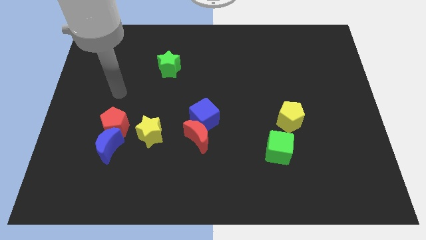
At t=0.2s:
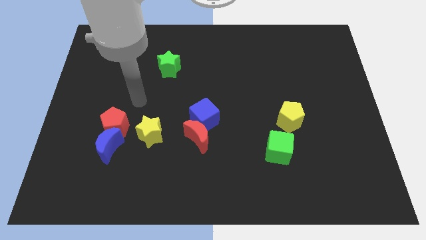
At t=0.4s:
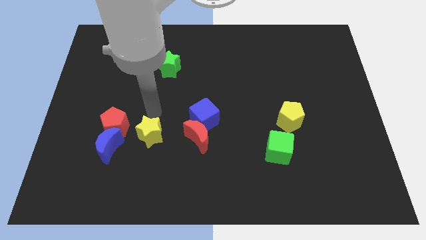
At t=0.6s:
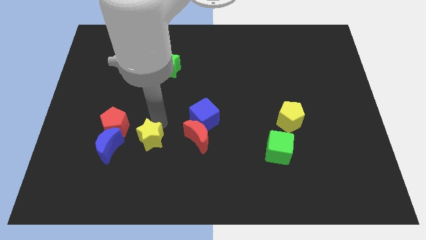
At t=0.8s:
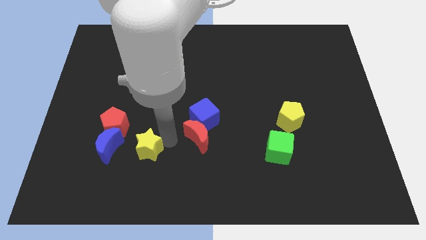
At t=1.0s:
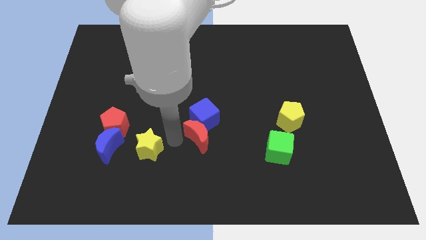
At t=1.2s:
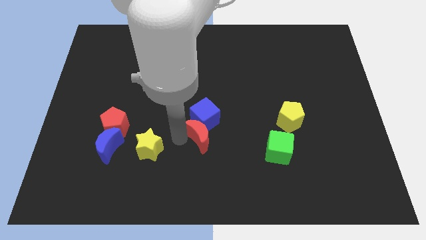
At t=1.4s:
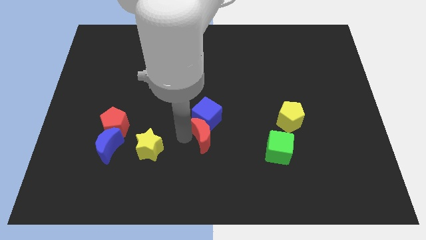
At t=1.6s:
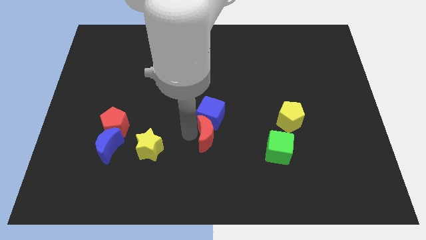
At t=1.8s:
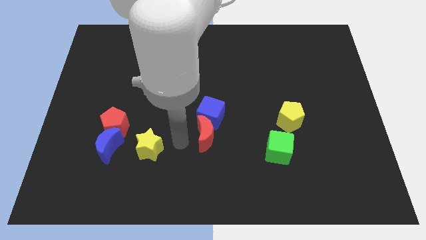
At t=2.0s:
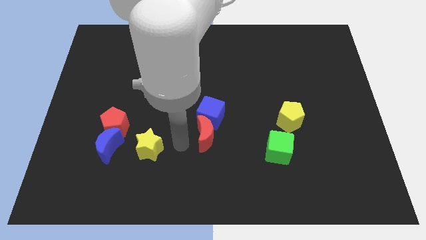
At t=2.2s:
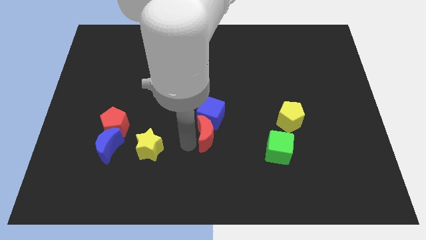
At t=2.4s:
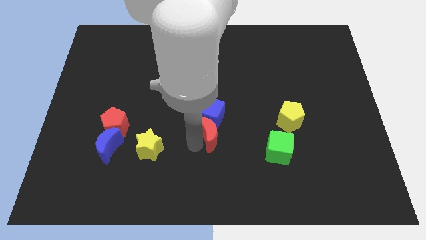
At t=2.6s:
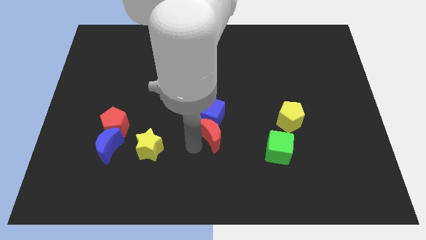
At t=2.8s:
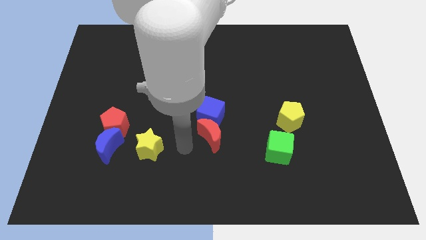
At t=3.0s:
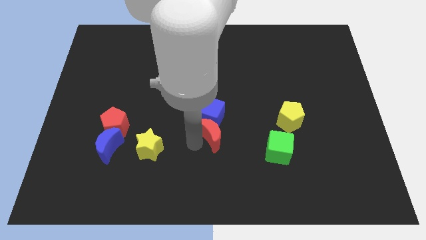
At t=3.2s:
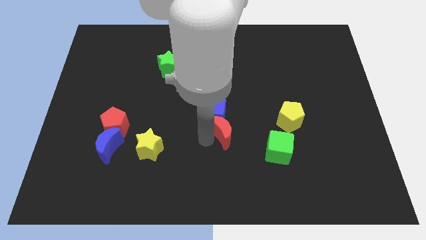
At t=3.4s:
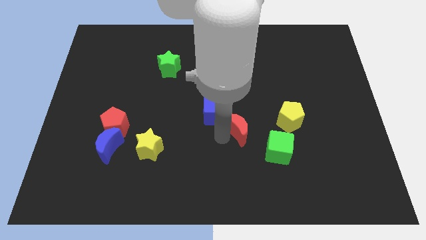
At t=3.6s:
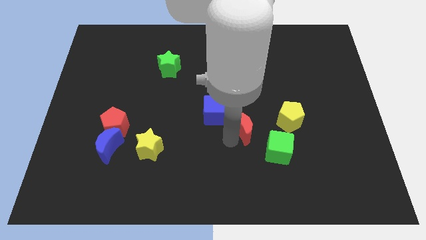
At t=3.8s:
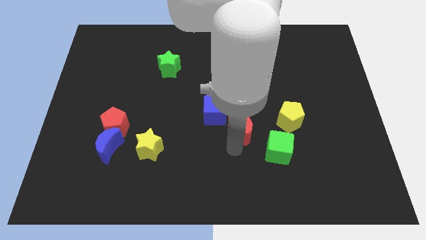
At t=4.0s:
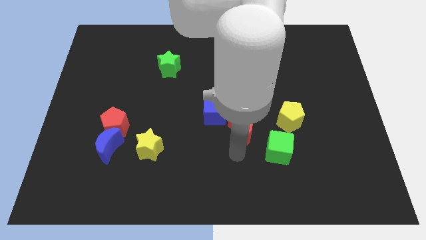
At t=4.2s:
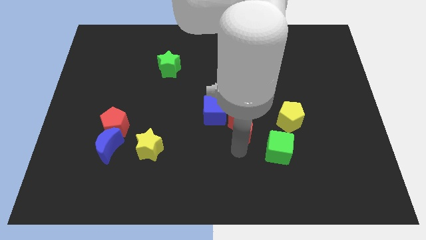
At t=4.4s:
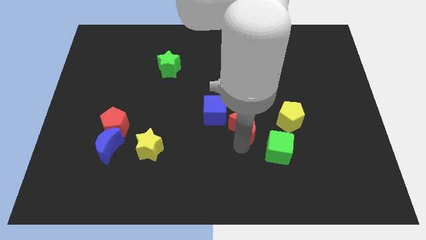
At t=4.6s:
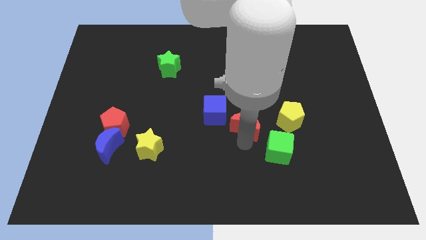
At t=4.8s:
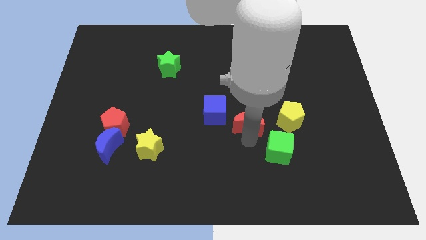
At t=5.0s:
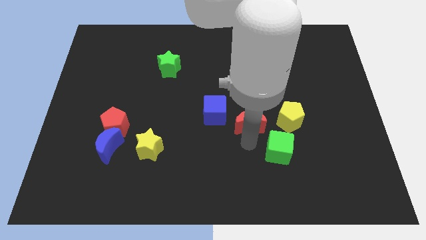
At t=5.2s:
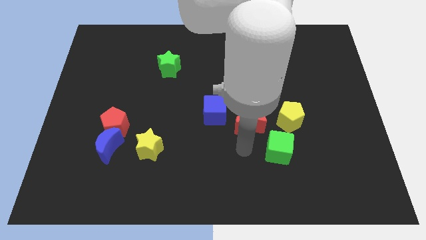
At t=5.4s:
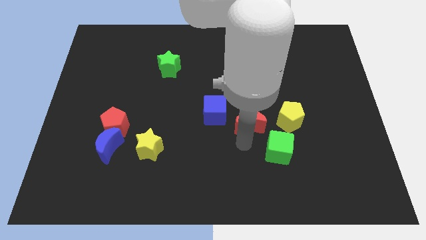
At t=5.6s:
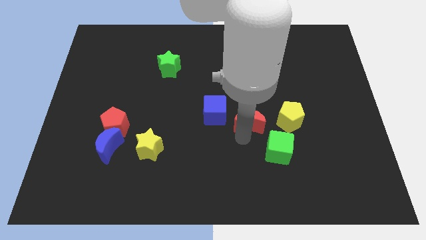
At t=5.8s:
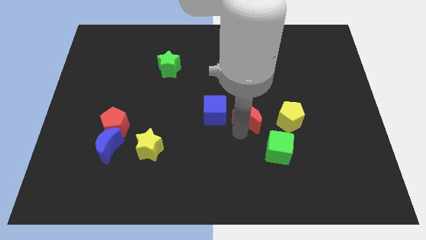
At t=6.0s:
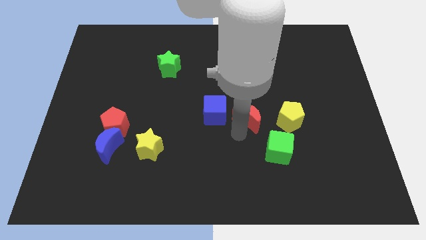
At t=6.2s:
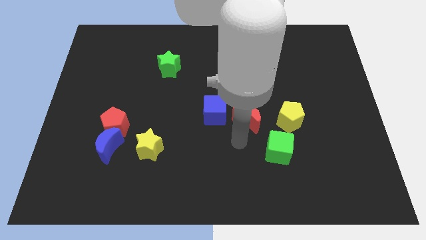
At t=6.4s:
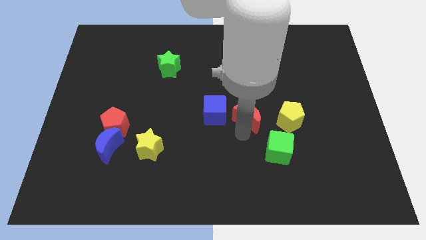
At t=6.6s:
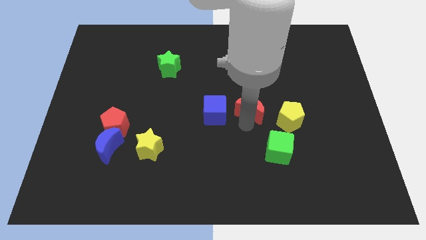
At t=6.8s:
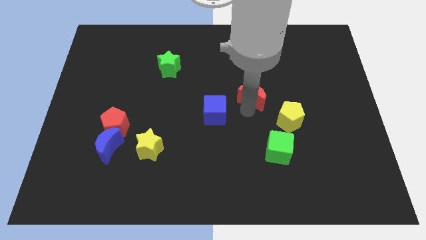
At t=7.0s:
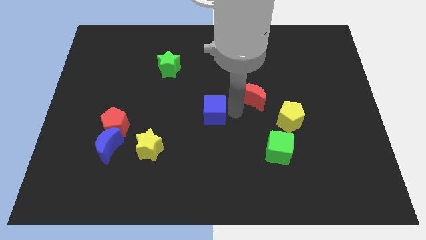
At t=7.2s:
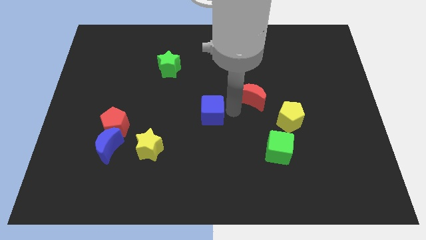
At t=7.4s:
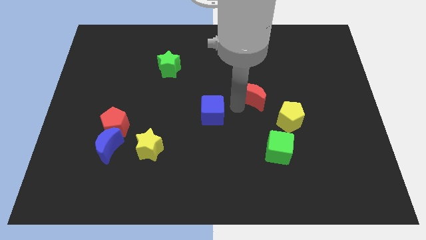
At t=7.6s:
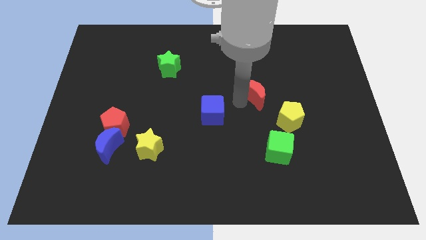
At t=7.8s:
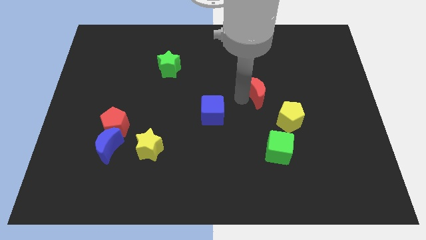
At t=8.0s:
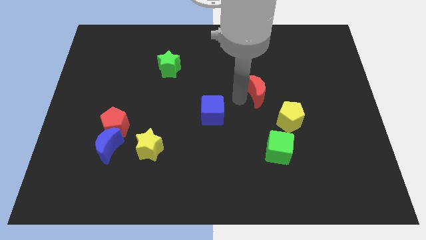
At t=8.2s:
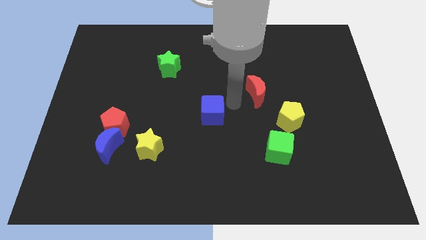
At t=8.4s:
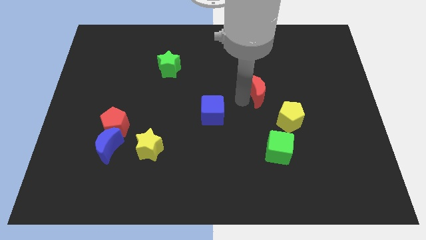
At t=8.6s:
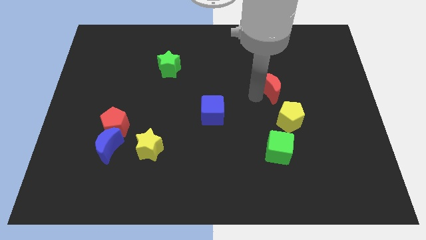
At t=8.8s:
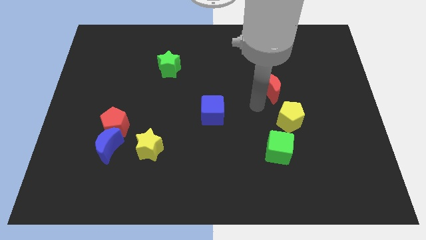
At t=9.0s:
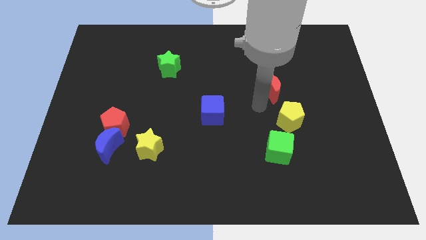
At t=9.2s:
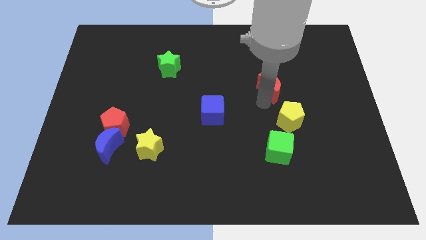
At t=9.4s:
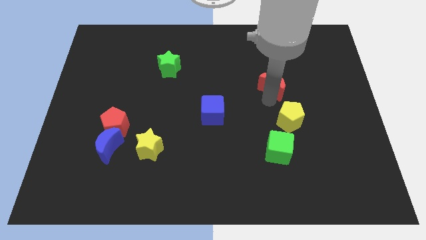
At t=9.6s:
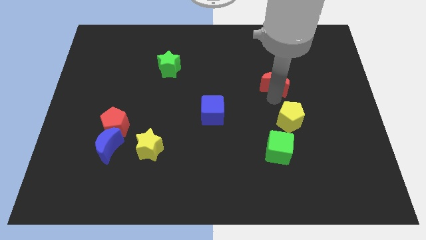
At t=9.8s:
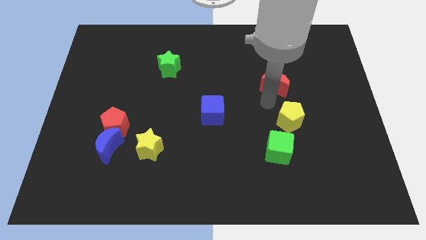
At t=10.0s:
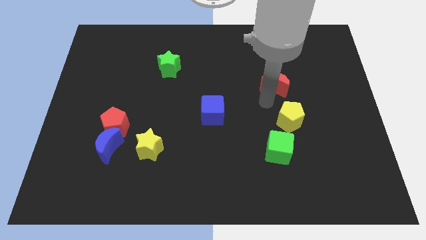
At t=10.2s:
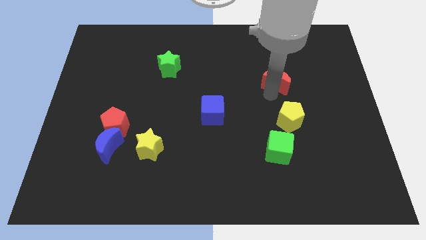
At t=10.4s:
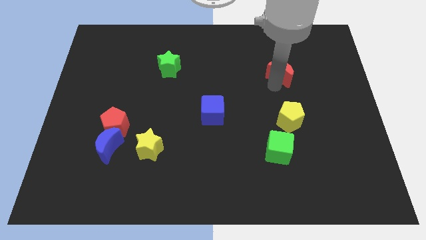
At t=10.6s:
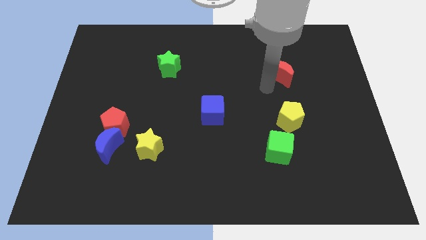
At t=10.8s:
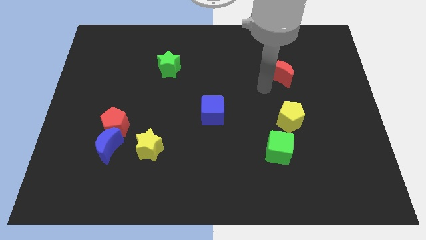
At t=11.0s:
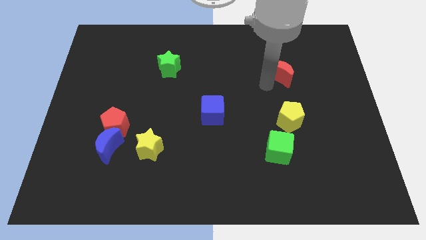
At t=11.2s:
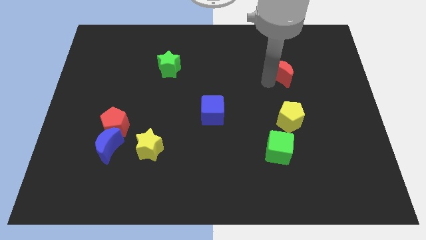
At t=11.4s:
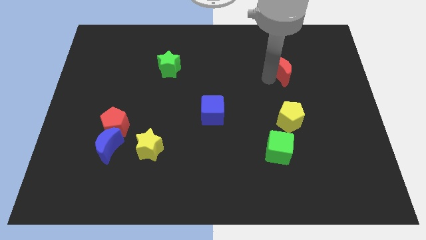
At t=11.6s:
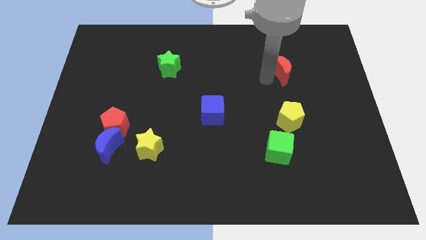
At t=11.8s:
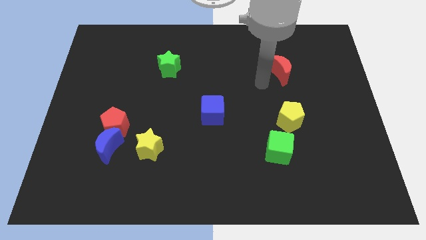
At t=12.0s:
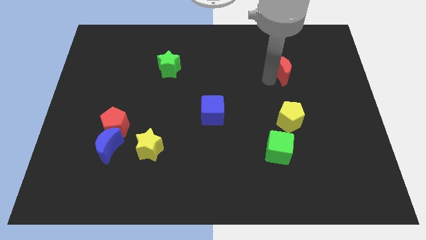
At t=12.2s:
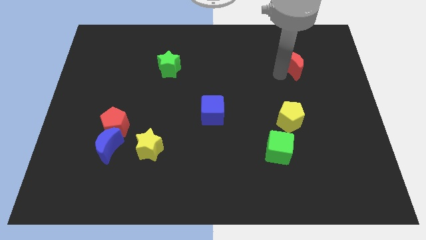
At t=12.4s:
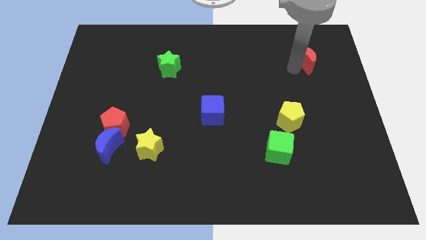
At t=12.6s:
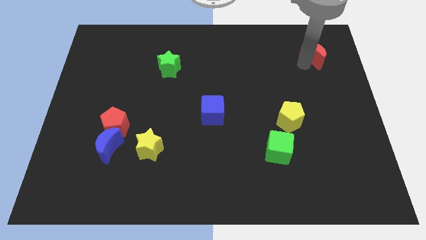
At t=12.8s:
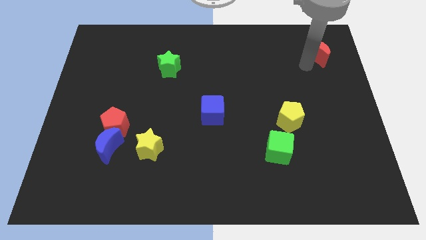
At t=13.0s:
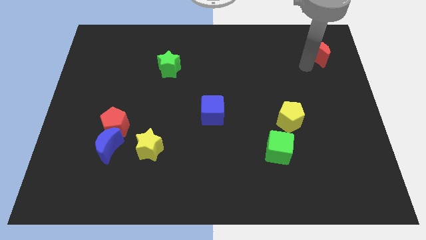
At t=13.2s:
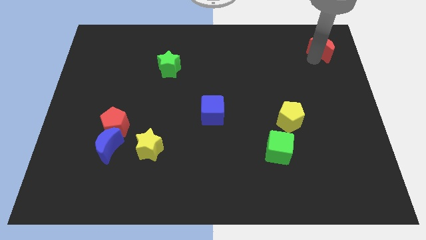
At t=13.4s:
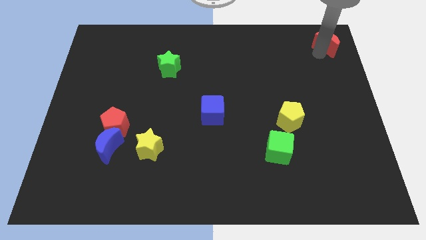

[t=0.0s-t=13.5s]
push the red moon to the top right
